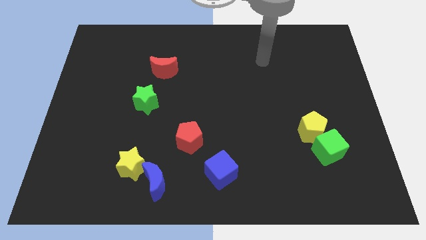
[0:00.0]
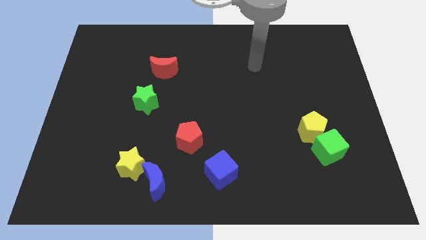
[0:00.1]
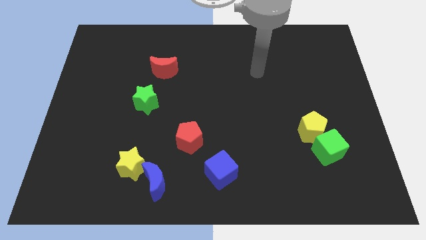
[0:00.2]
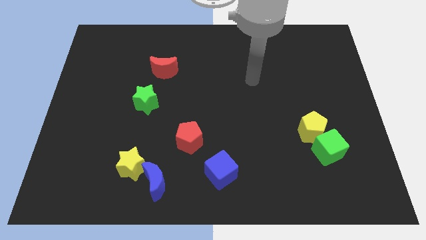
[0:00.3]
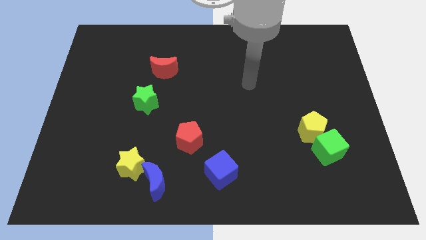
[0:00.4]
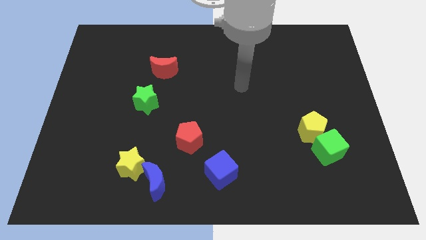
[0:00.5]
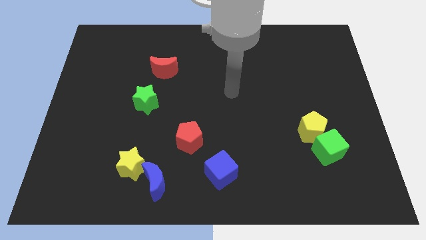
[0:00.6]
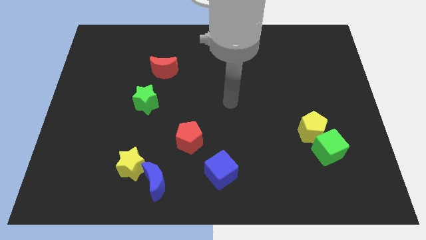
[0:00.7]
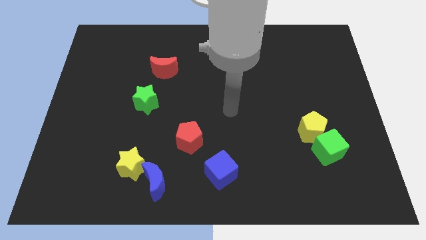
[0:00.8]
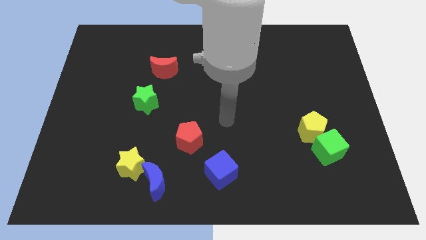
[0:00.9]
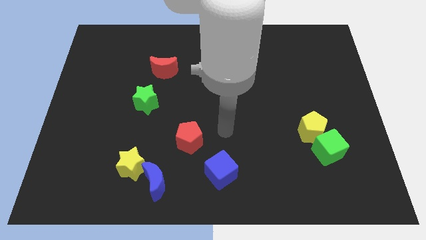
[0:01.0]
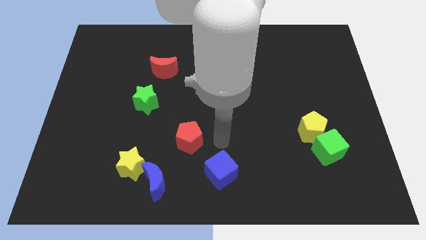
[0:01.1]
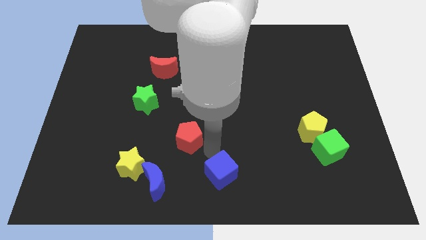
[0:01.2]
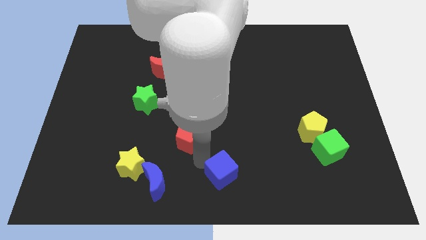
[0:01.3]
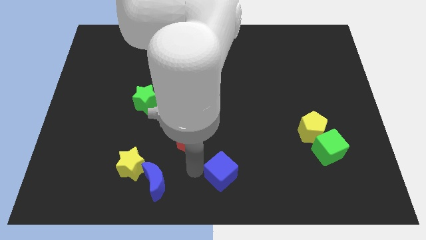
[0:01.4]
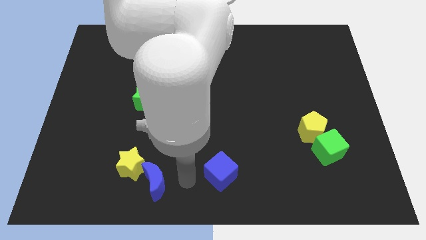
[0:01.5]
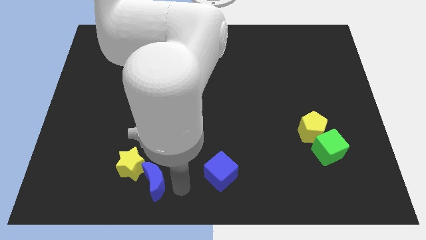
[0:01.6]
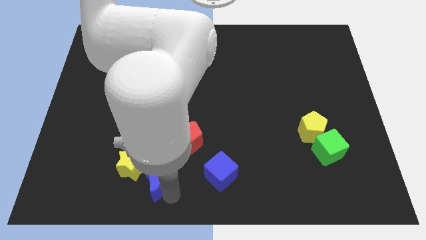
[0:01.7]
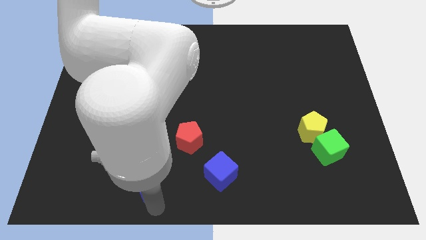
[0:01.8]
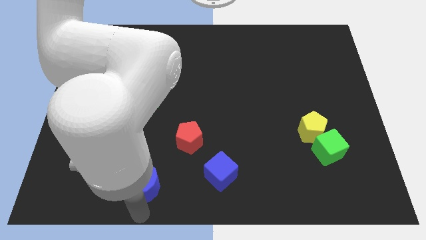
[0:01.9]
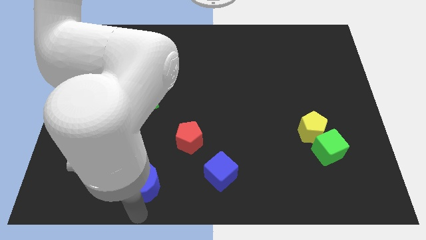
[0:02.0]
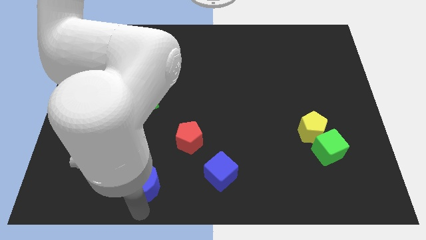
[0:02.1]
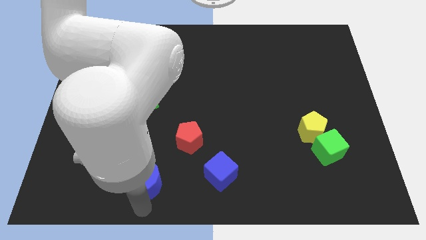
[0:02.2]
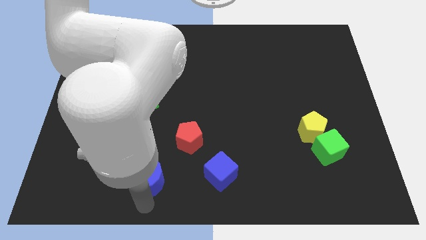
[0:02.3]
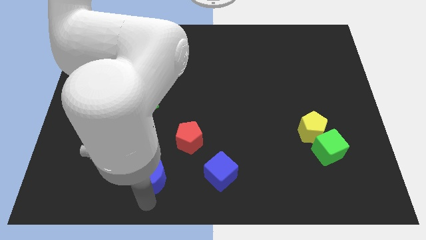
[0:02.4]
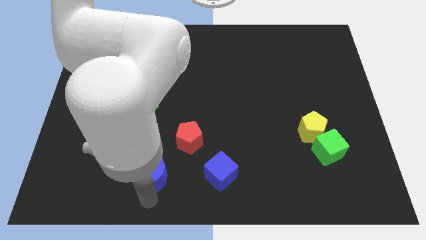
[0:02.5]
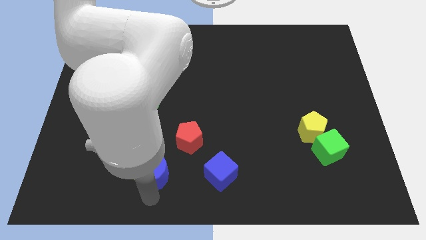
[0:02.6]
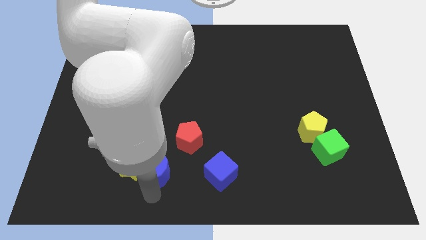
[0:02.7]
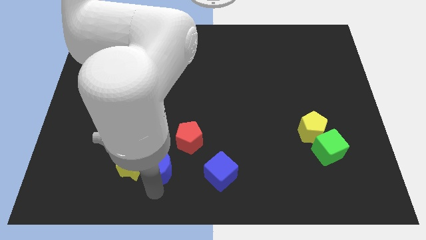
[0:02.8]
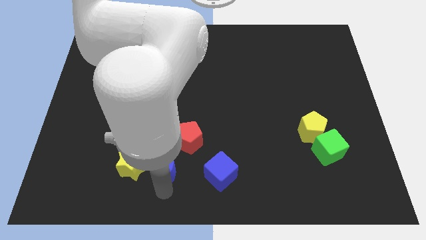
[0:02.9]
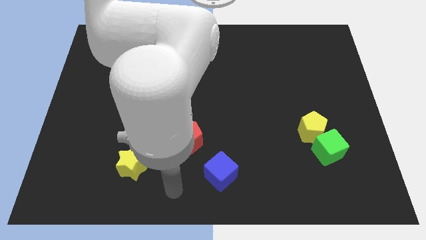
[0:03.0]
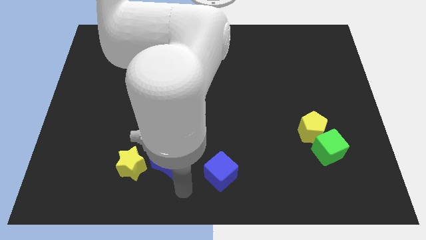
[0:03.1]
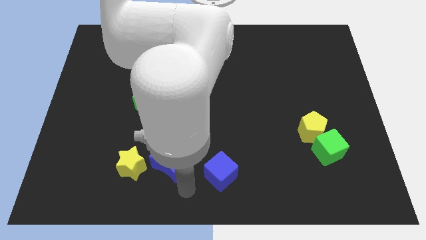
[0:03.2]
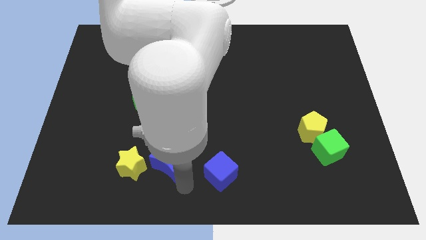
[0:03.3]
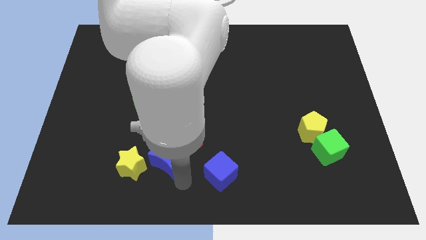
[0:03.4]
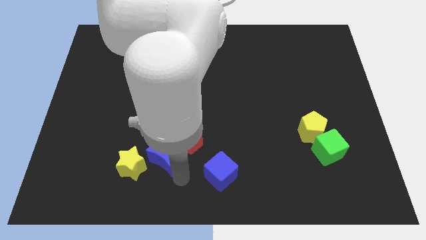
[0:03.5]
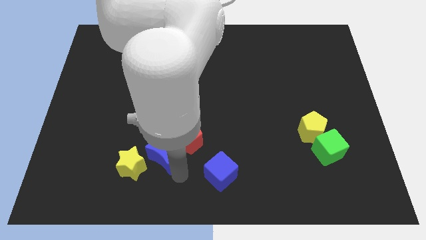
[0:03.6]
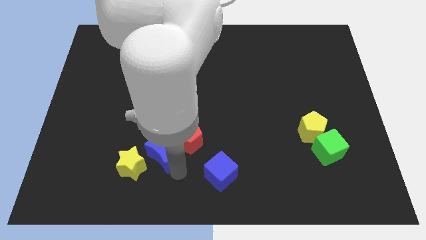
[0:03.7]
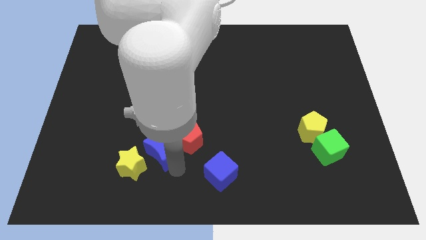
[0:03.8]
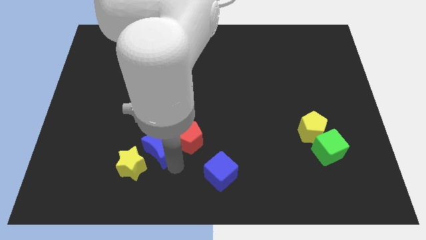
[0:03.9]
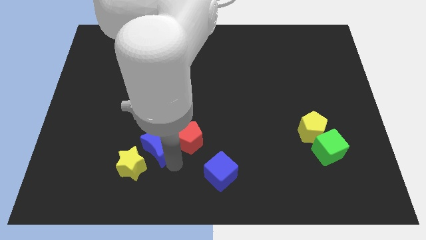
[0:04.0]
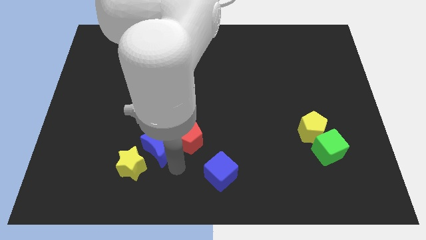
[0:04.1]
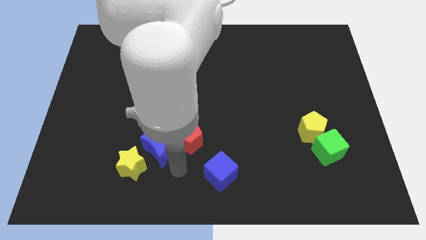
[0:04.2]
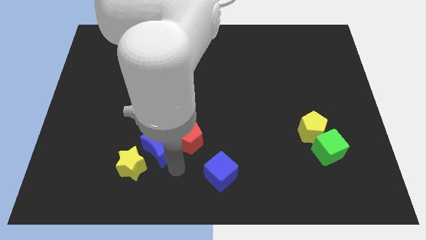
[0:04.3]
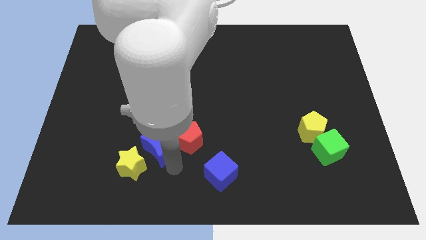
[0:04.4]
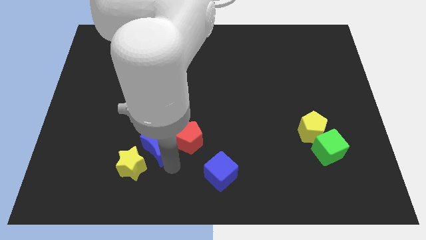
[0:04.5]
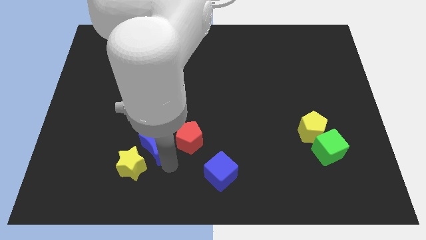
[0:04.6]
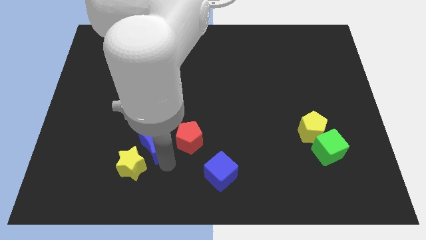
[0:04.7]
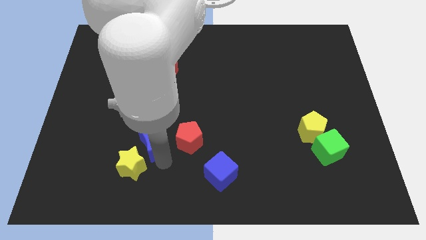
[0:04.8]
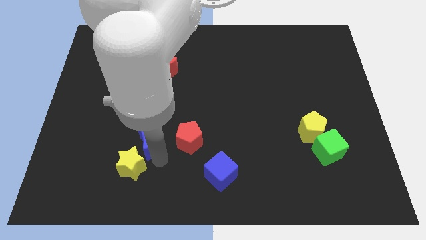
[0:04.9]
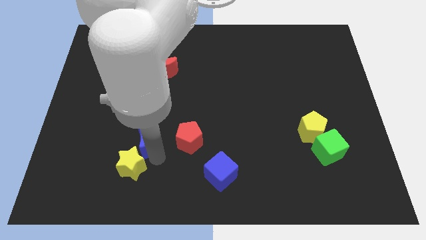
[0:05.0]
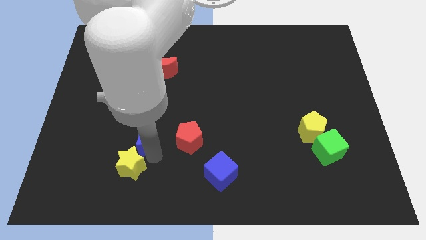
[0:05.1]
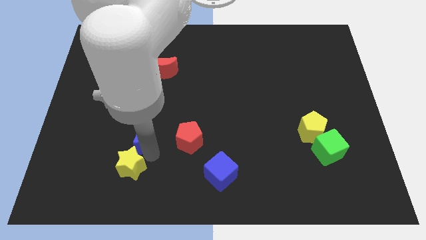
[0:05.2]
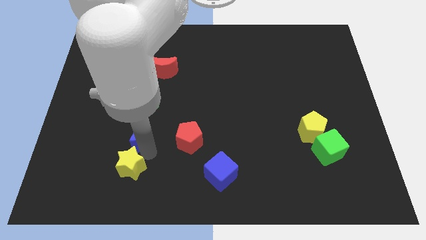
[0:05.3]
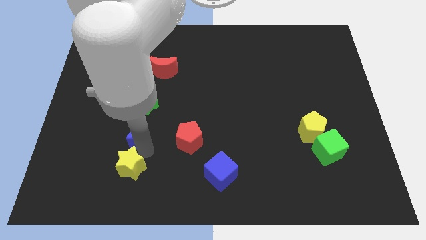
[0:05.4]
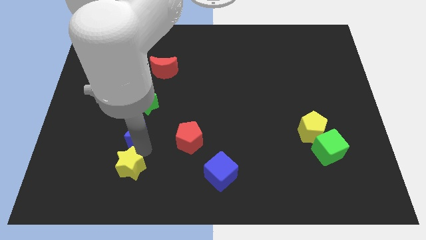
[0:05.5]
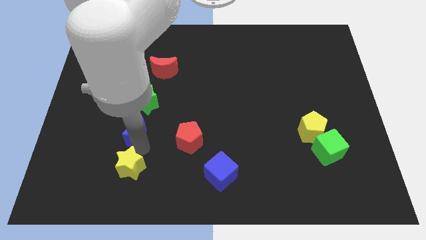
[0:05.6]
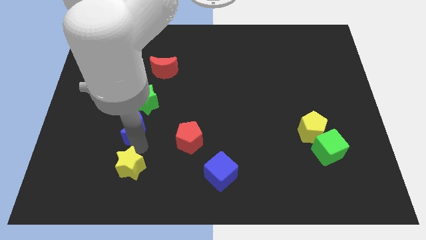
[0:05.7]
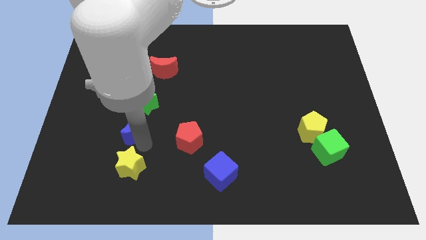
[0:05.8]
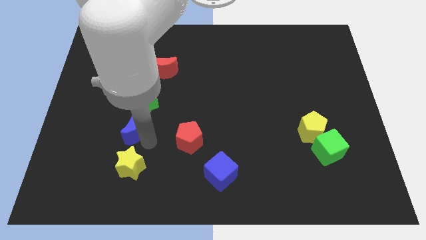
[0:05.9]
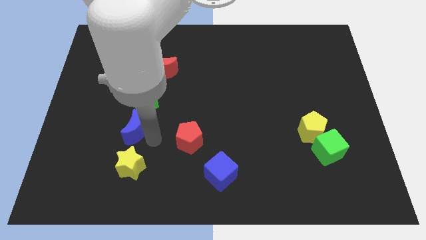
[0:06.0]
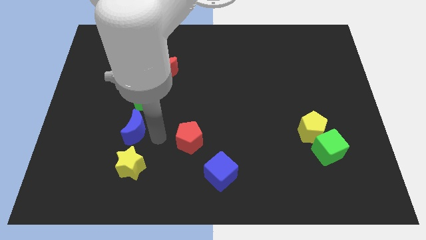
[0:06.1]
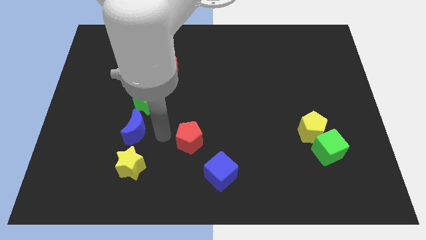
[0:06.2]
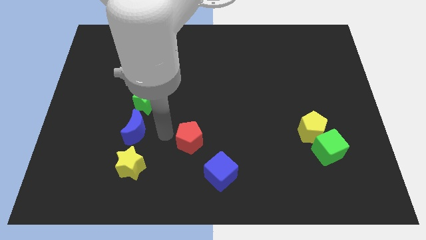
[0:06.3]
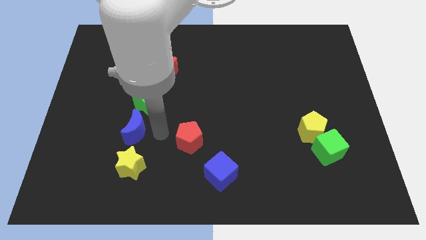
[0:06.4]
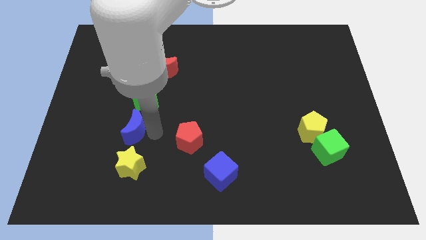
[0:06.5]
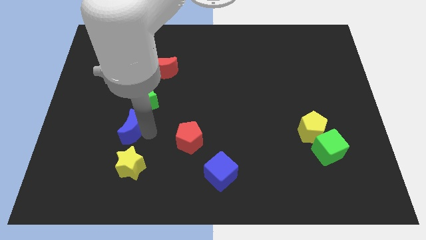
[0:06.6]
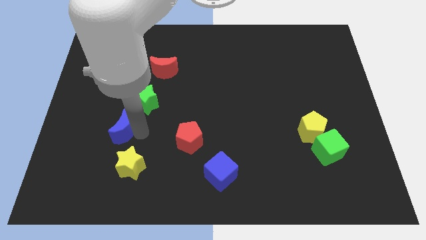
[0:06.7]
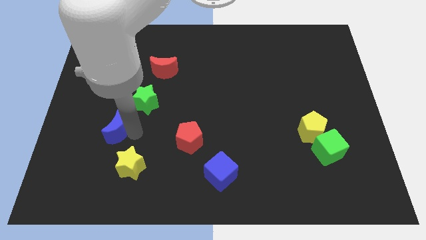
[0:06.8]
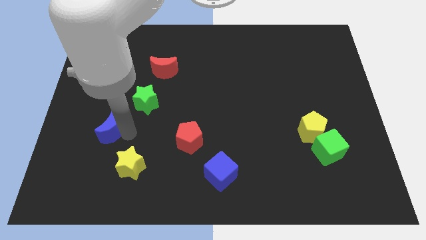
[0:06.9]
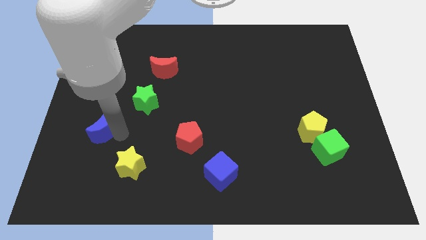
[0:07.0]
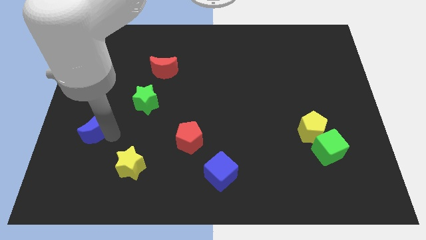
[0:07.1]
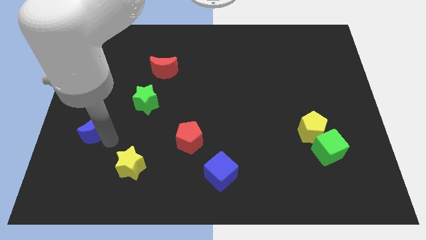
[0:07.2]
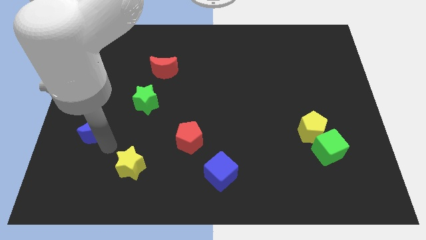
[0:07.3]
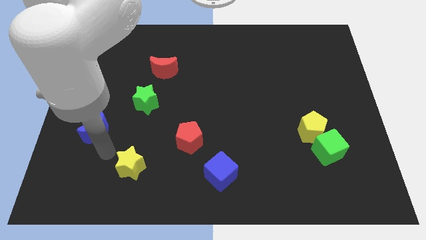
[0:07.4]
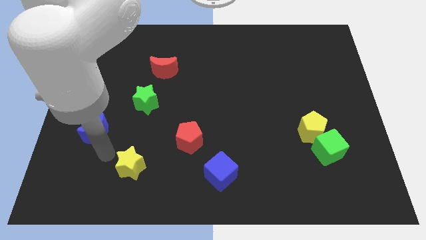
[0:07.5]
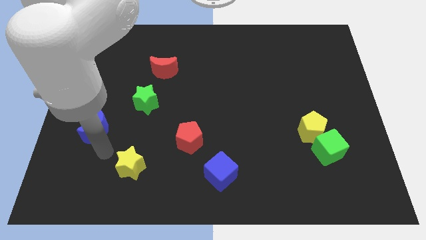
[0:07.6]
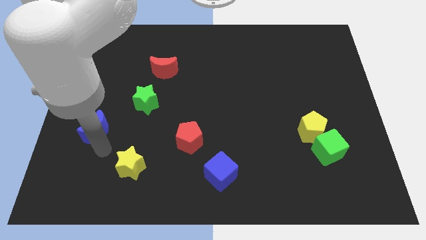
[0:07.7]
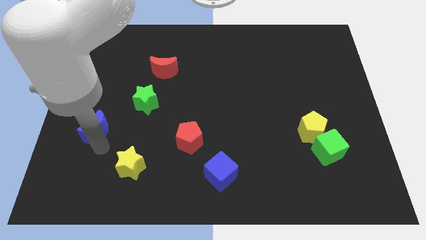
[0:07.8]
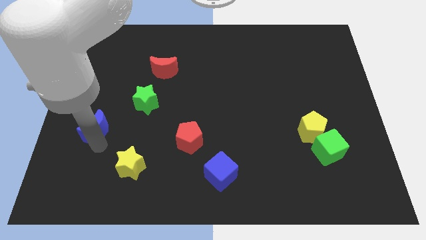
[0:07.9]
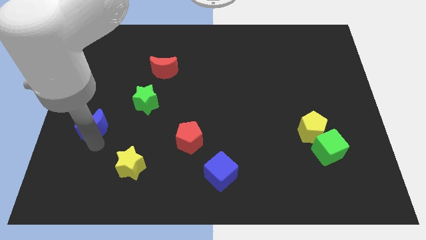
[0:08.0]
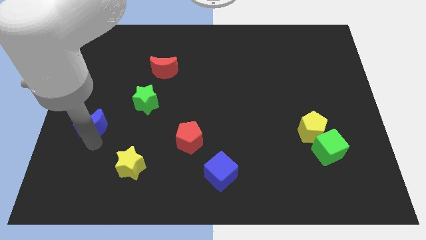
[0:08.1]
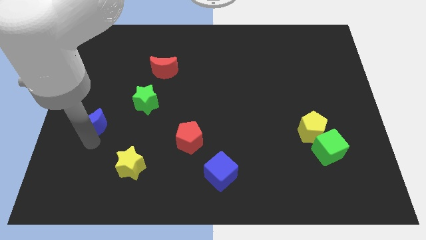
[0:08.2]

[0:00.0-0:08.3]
push the blue moon to the center left
